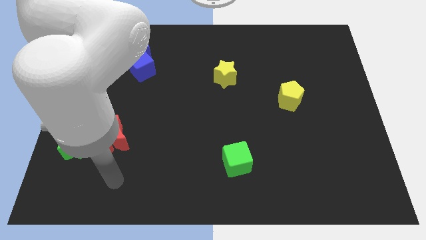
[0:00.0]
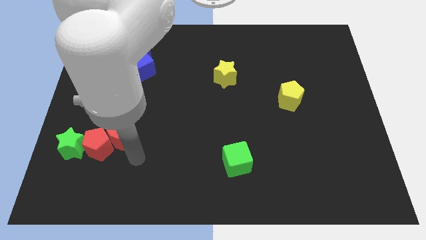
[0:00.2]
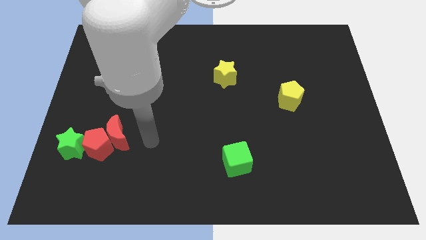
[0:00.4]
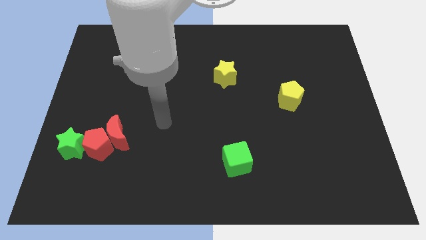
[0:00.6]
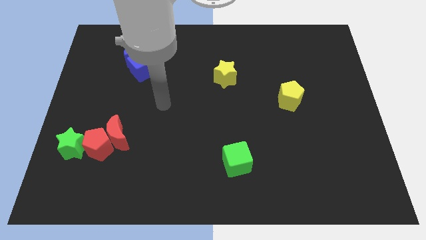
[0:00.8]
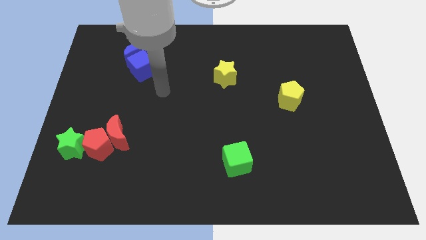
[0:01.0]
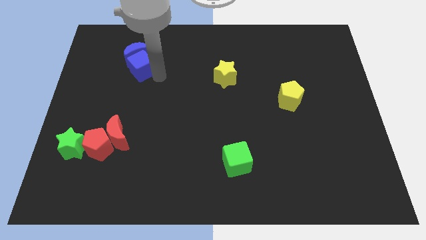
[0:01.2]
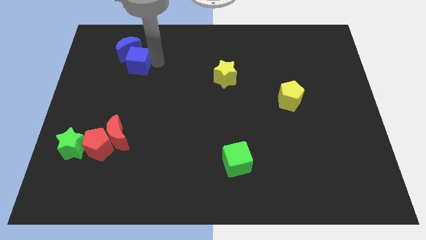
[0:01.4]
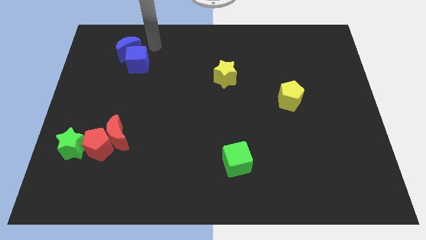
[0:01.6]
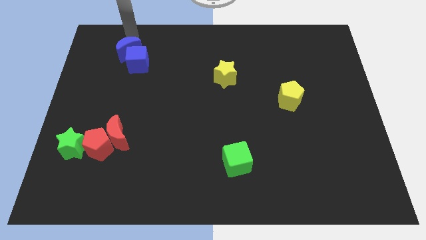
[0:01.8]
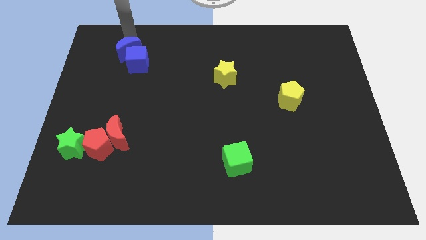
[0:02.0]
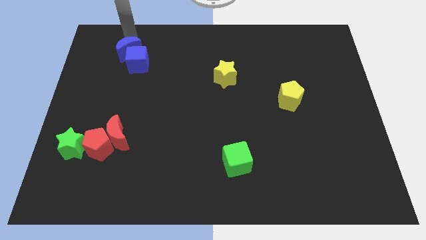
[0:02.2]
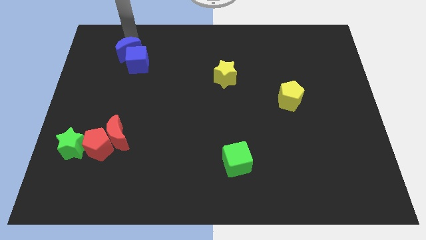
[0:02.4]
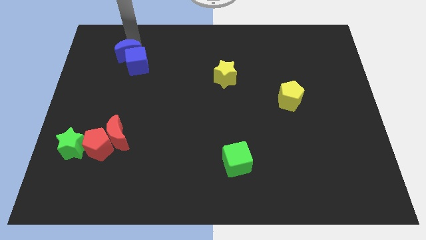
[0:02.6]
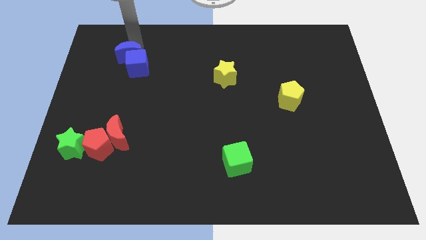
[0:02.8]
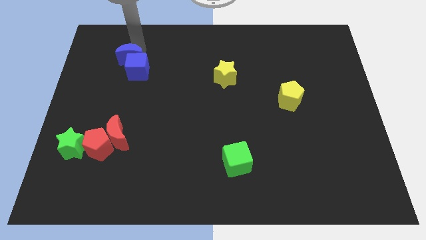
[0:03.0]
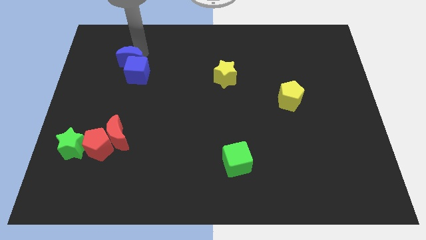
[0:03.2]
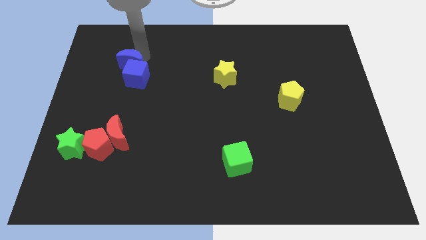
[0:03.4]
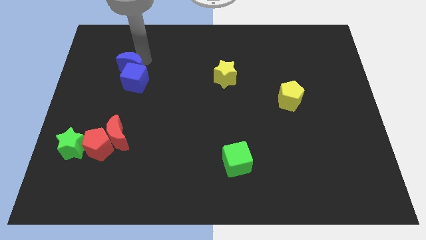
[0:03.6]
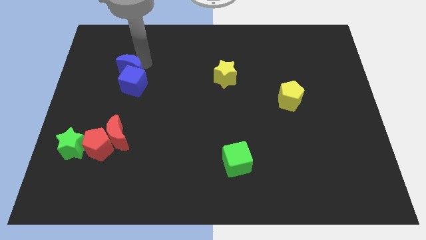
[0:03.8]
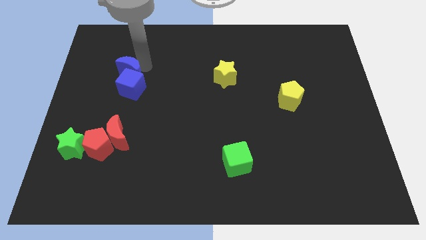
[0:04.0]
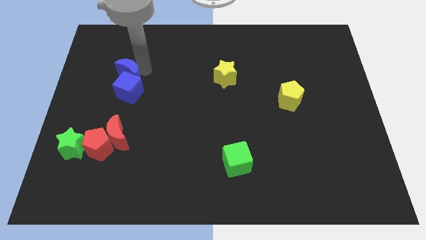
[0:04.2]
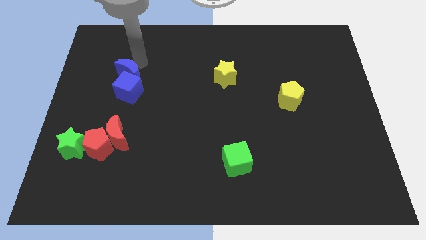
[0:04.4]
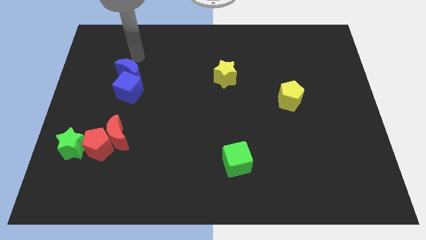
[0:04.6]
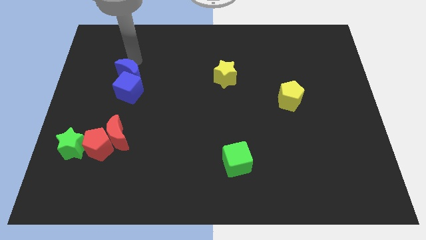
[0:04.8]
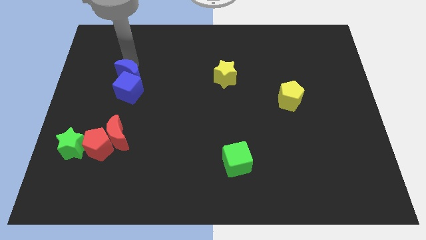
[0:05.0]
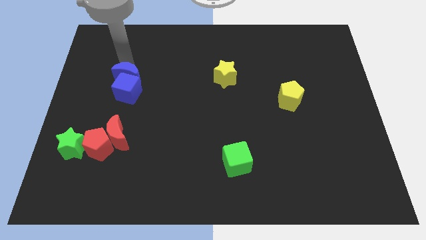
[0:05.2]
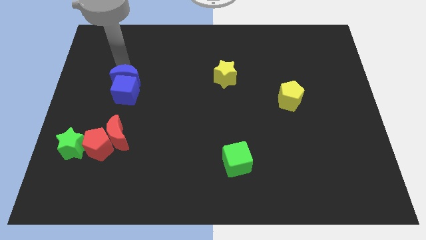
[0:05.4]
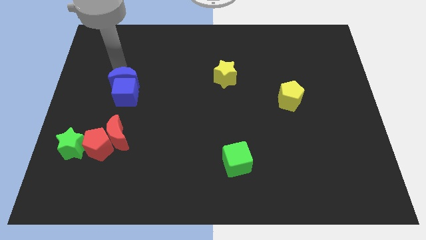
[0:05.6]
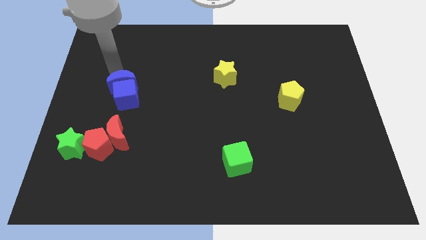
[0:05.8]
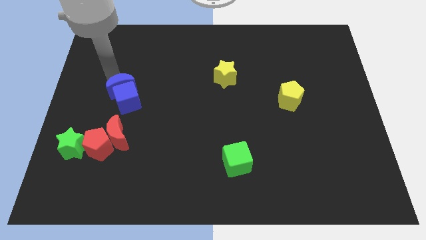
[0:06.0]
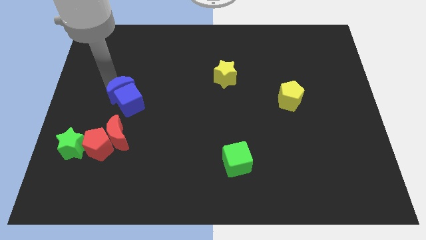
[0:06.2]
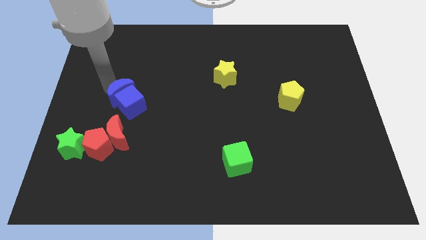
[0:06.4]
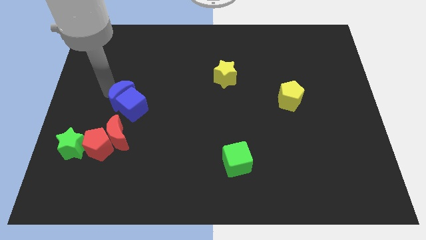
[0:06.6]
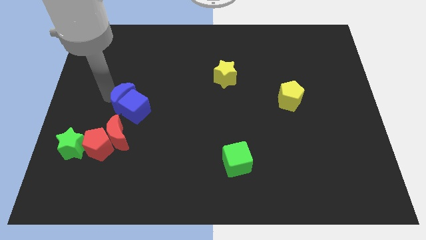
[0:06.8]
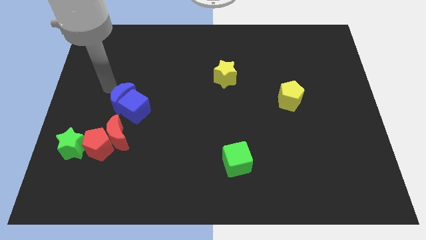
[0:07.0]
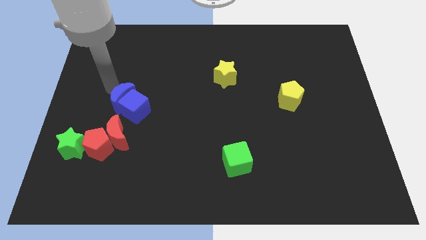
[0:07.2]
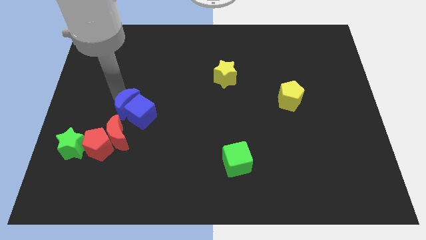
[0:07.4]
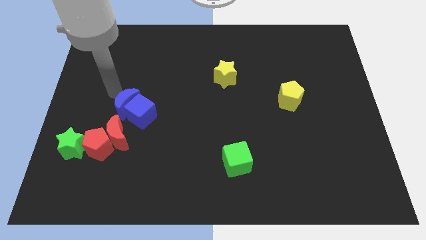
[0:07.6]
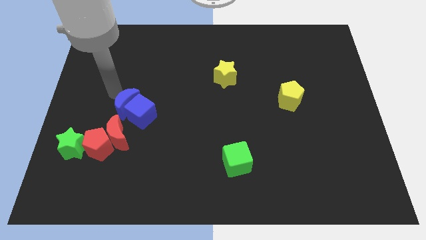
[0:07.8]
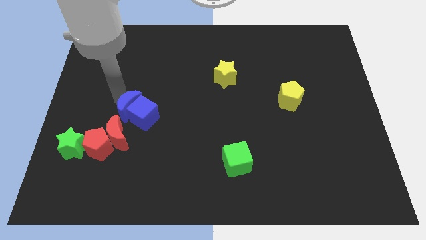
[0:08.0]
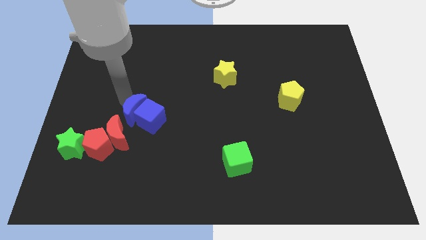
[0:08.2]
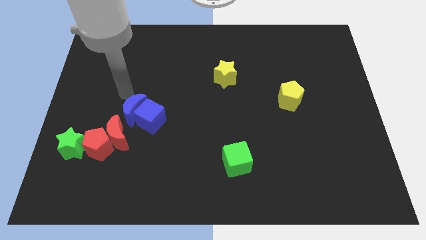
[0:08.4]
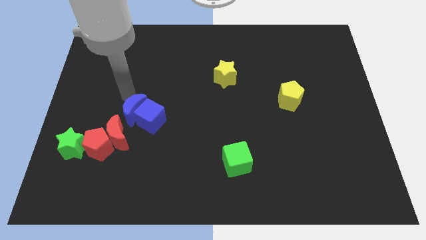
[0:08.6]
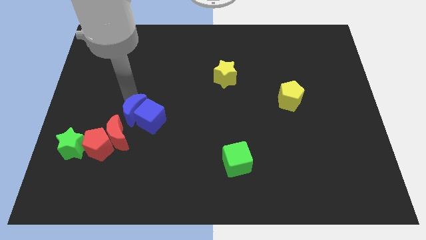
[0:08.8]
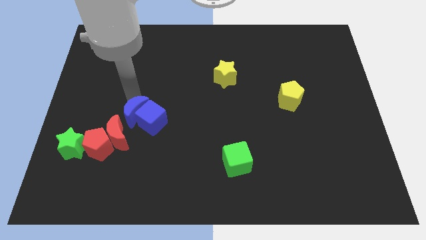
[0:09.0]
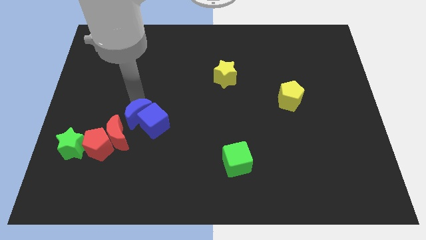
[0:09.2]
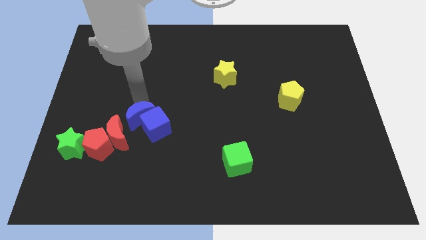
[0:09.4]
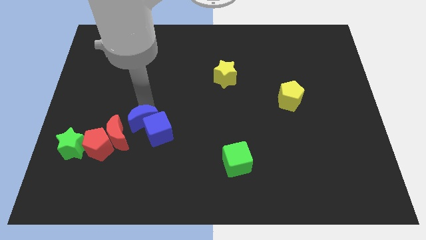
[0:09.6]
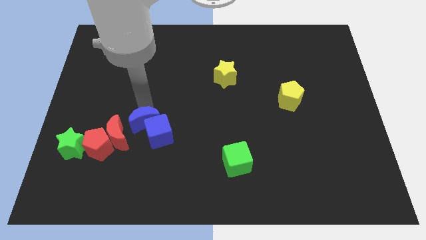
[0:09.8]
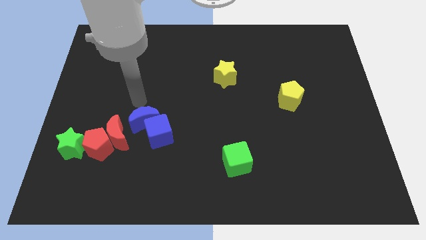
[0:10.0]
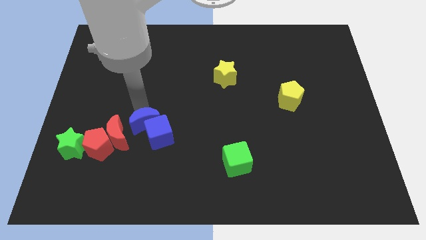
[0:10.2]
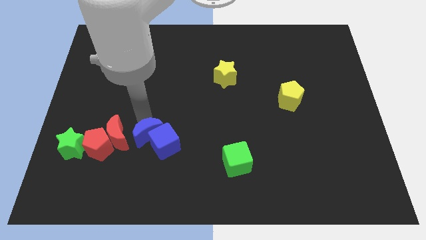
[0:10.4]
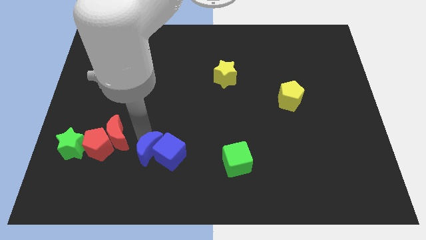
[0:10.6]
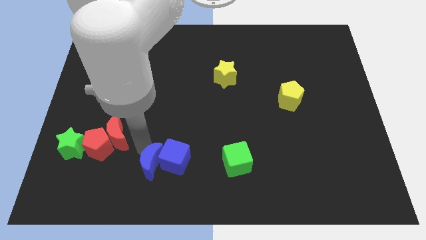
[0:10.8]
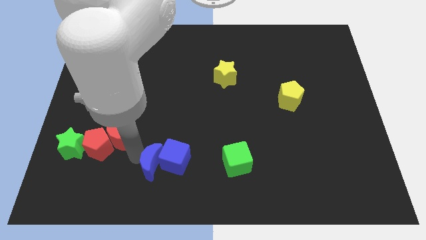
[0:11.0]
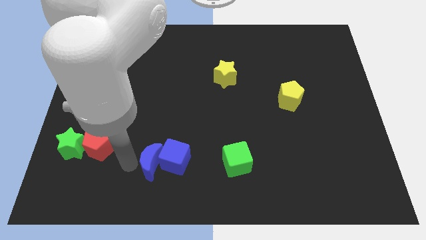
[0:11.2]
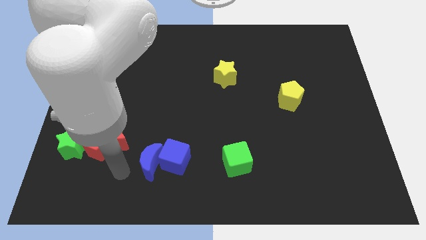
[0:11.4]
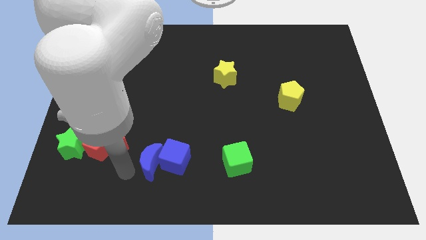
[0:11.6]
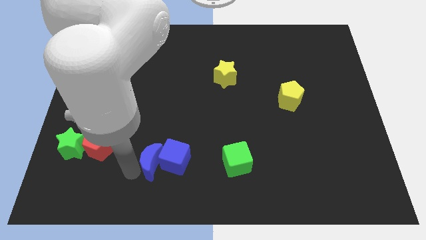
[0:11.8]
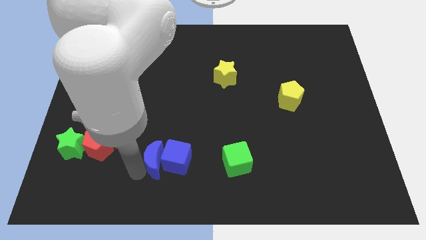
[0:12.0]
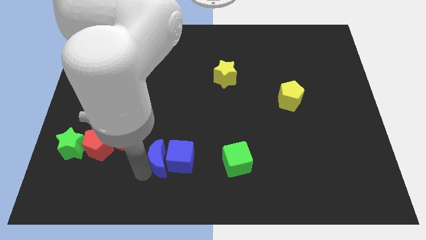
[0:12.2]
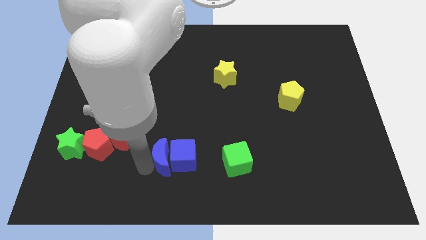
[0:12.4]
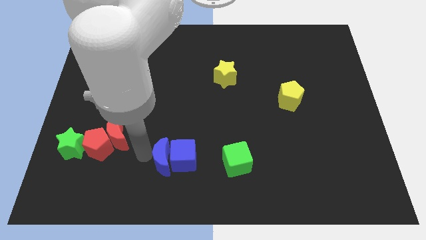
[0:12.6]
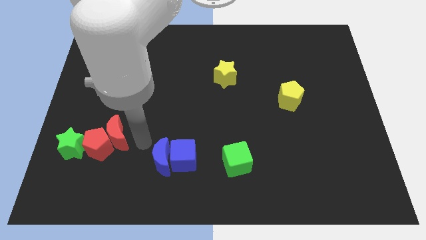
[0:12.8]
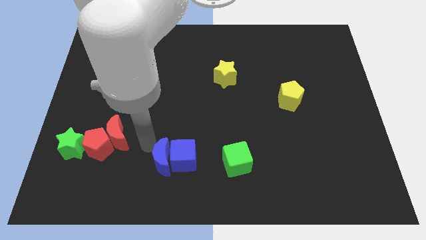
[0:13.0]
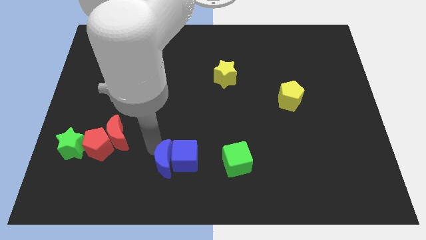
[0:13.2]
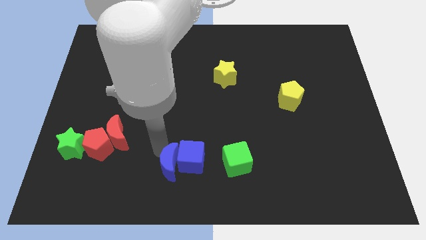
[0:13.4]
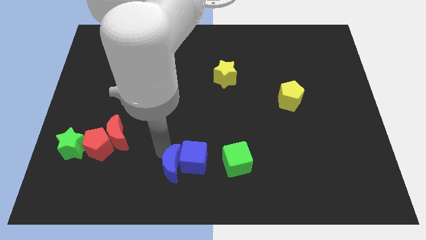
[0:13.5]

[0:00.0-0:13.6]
push the blue moon to the bottom side
